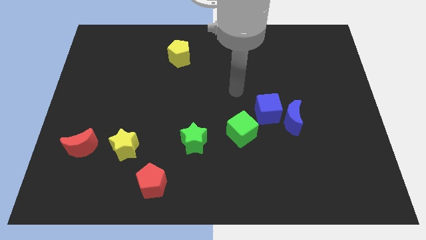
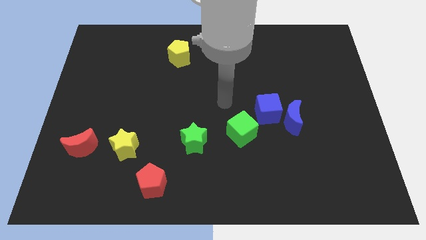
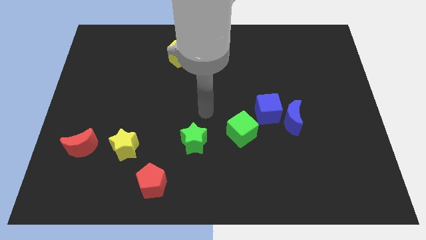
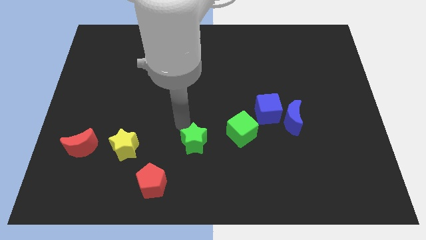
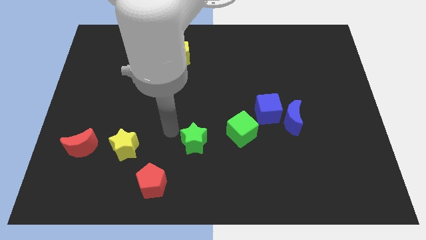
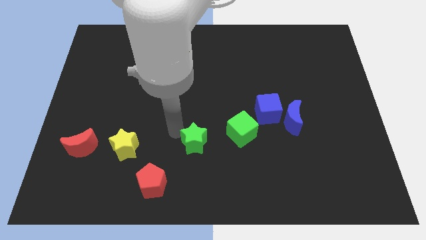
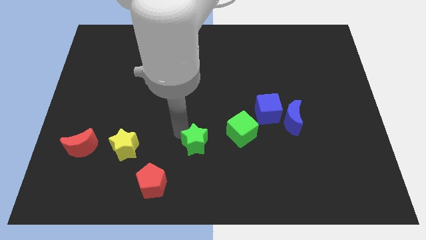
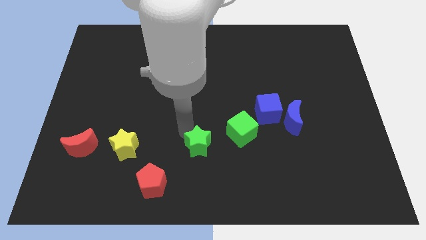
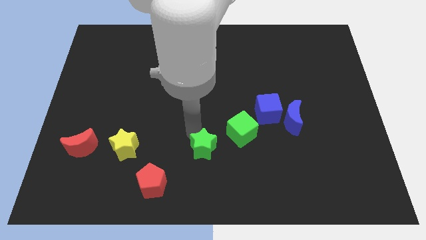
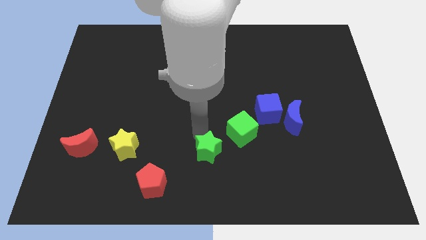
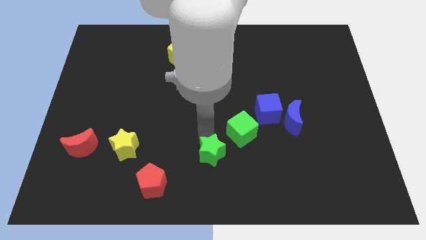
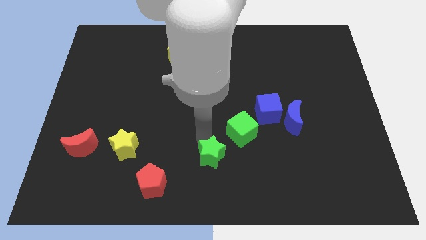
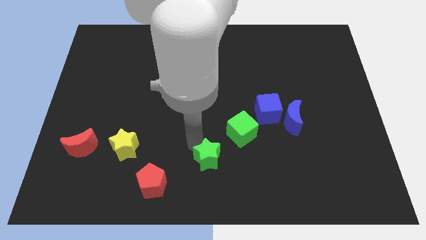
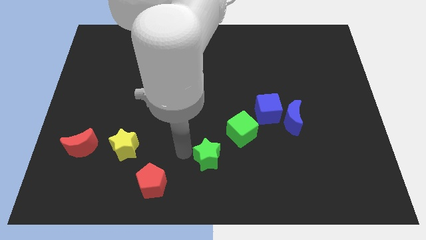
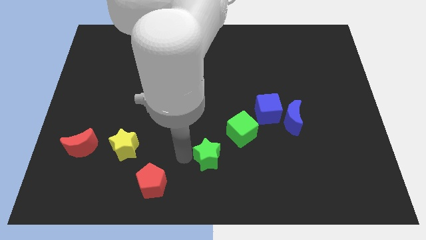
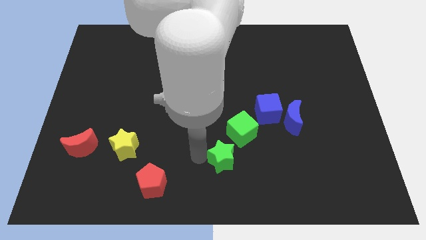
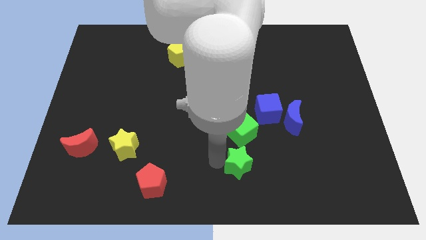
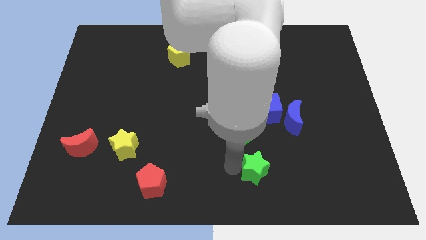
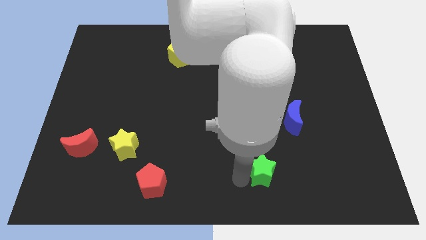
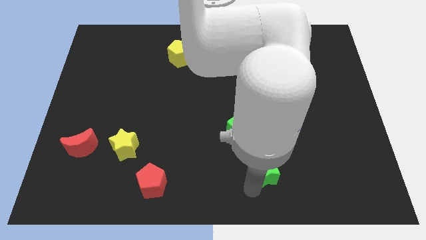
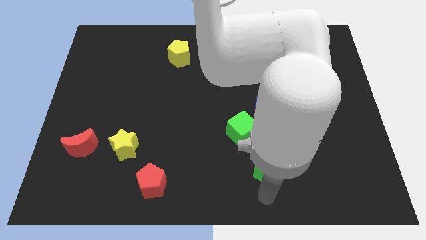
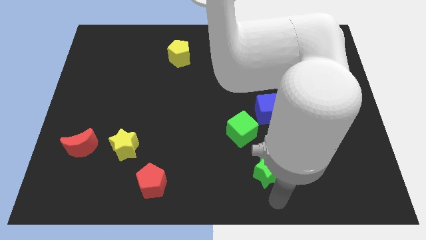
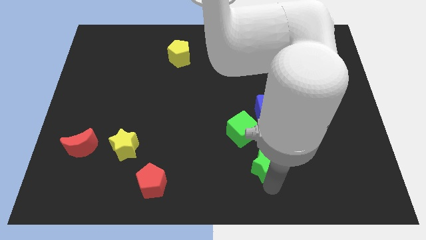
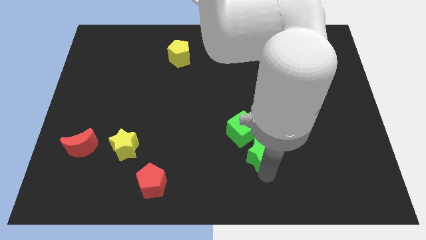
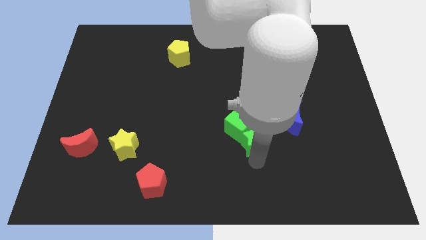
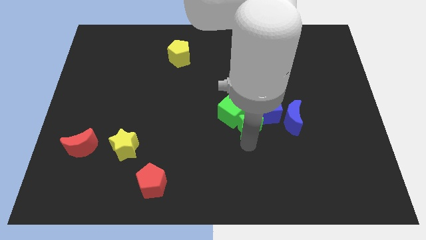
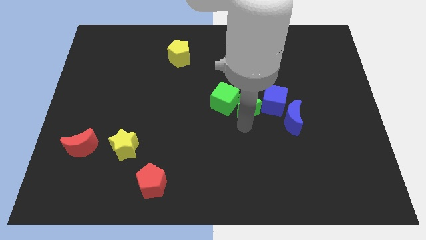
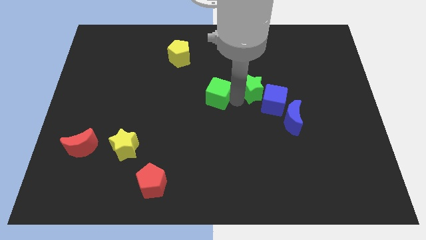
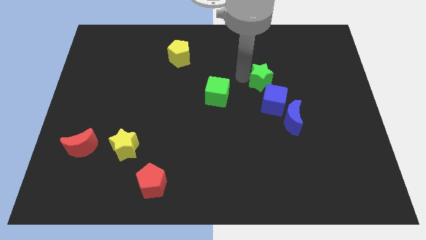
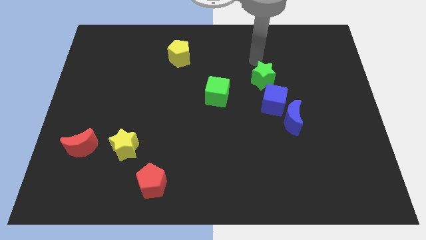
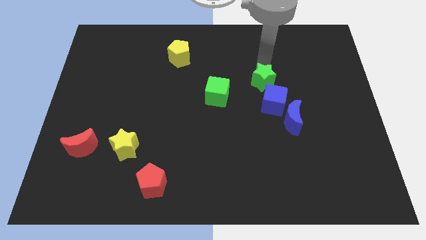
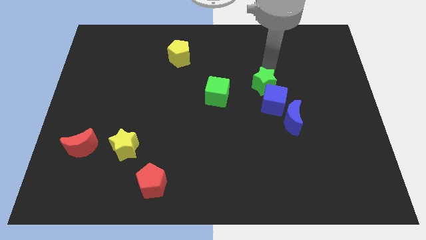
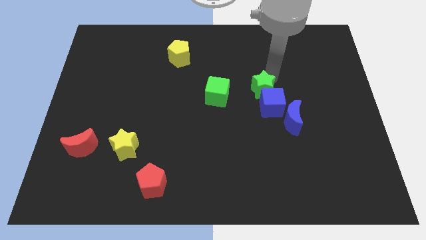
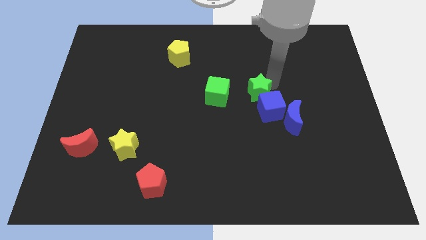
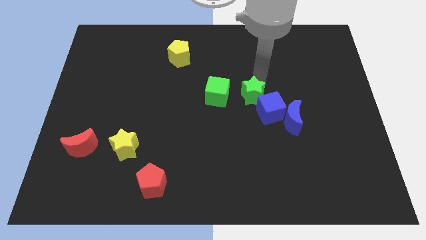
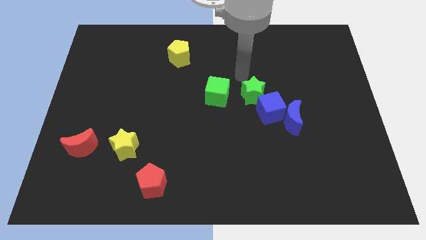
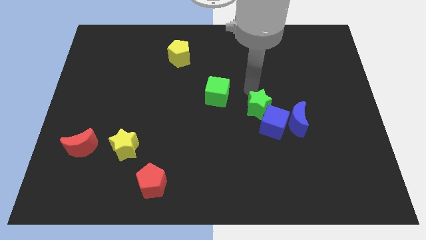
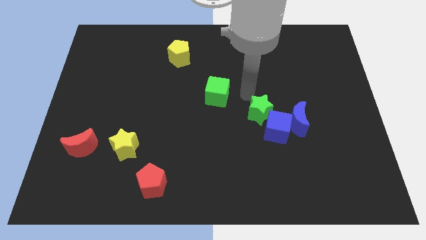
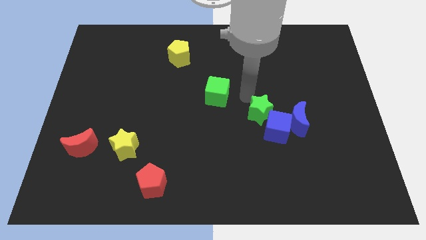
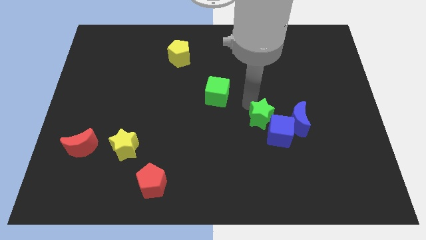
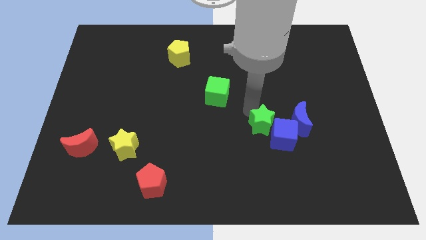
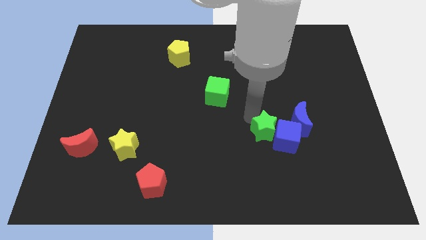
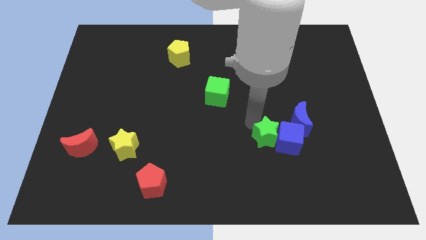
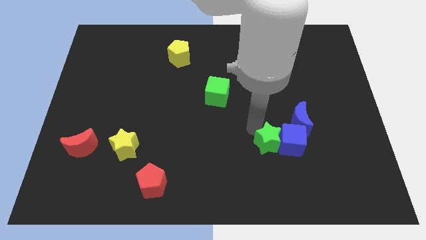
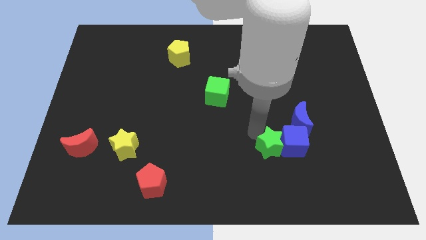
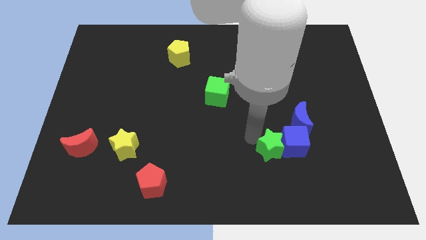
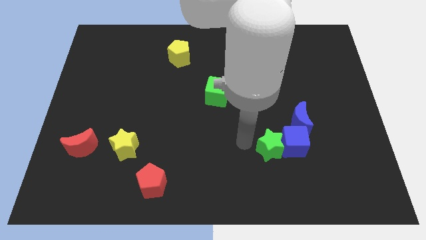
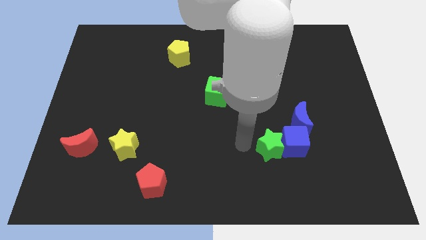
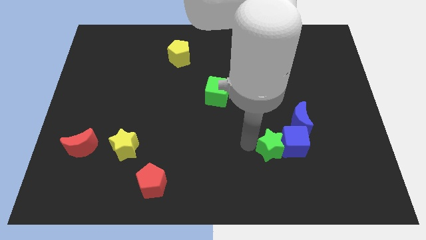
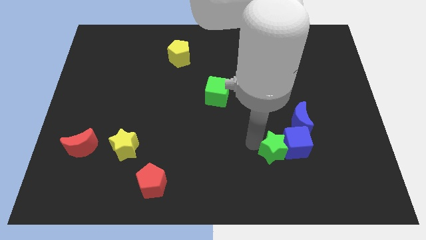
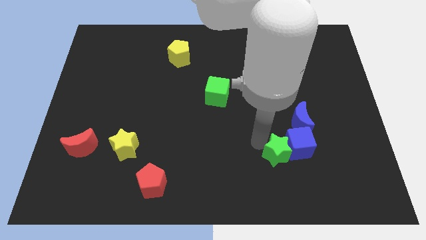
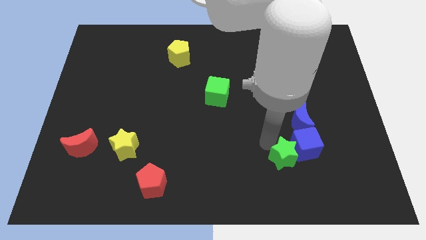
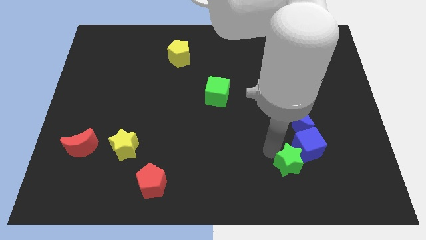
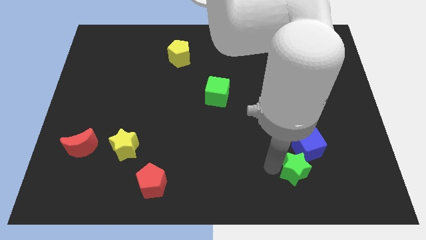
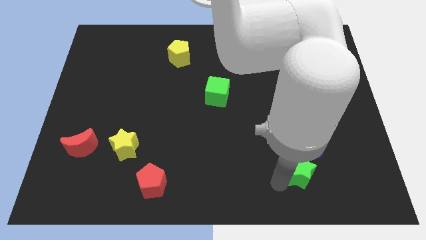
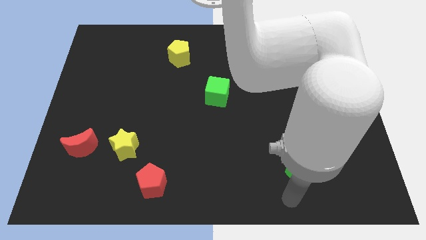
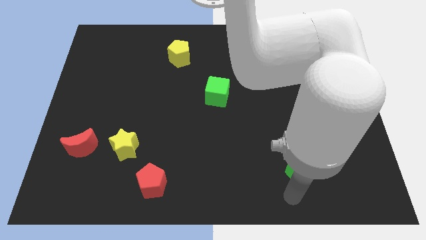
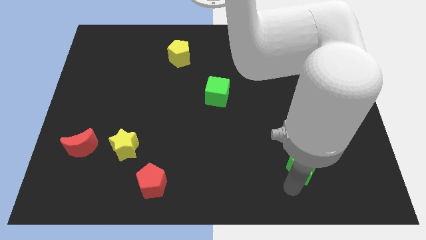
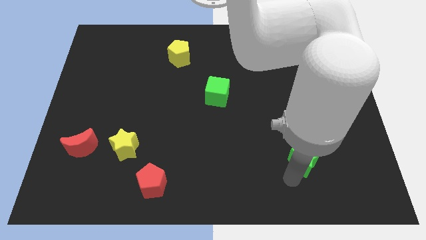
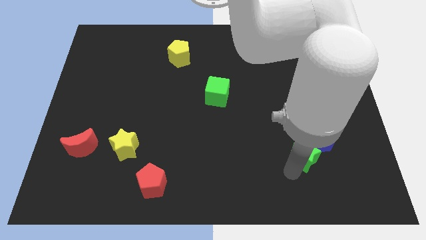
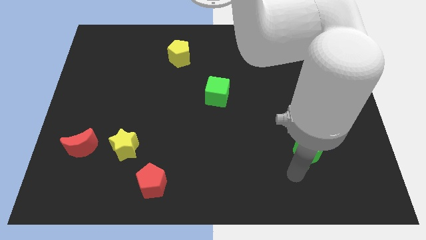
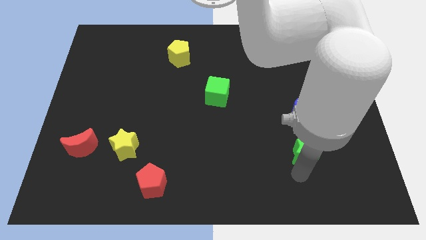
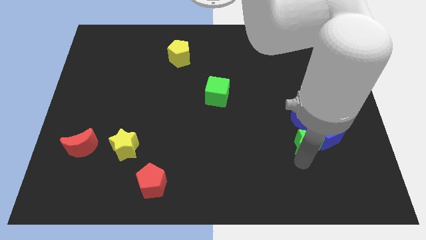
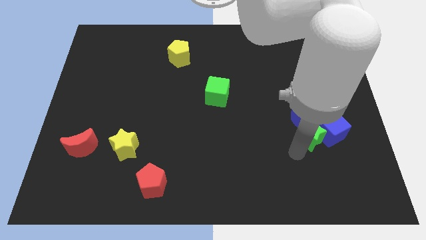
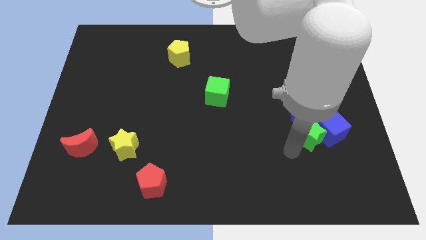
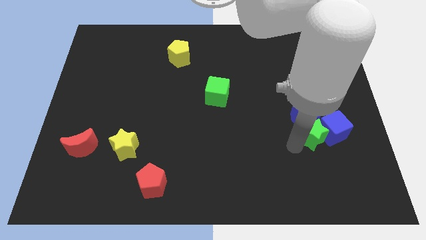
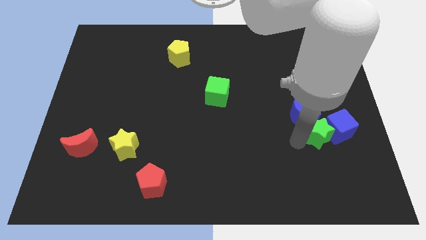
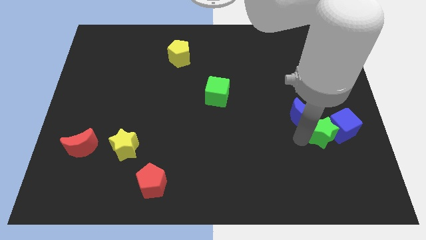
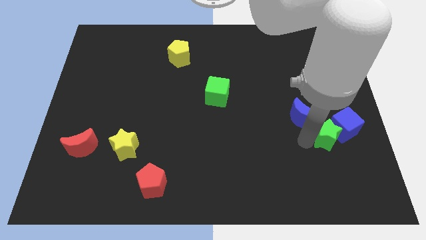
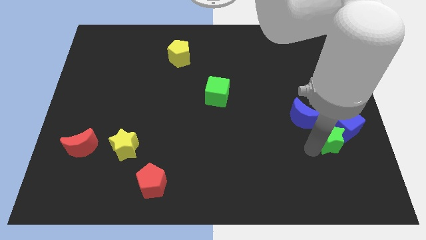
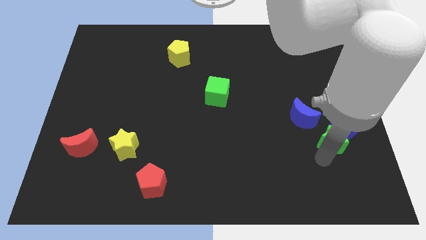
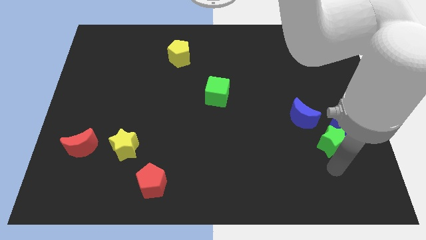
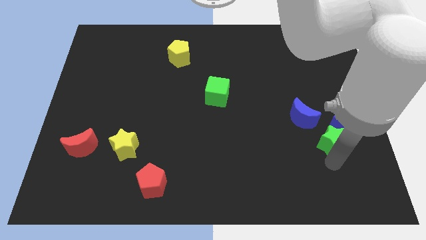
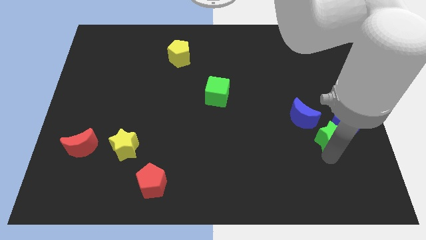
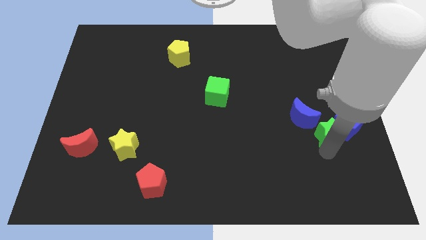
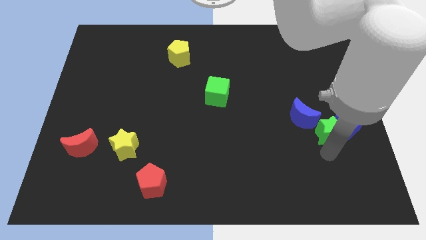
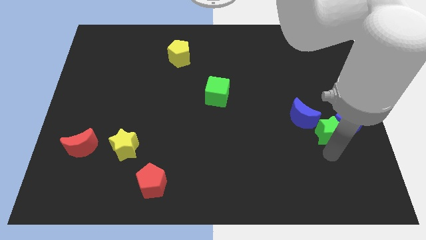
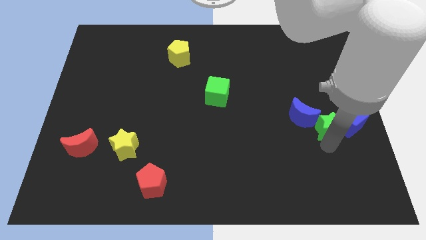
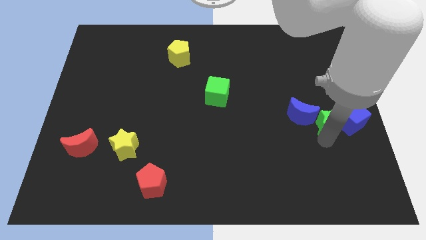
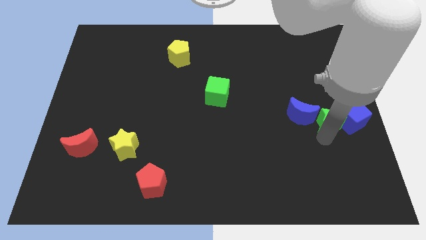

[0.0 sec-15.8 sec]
put the green star to the right side of the board
